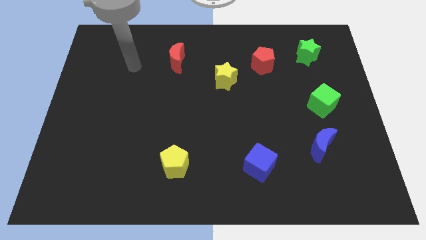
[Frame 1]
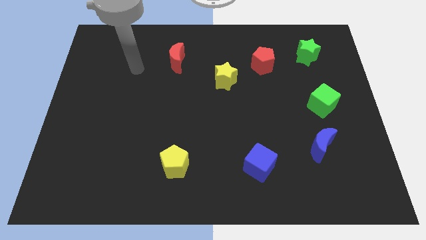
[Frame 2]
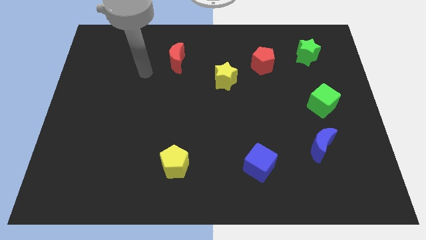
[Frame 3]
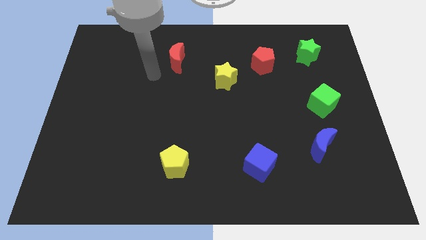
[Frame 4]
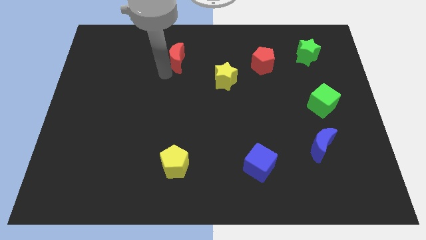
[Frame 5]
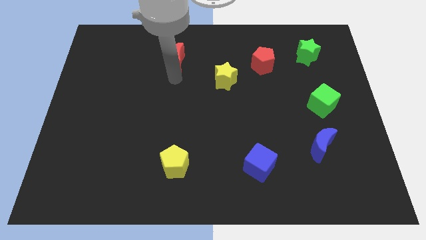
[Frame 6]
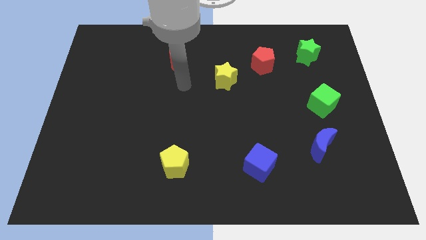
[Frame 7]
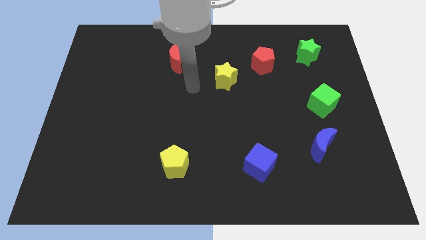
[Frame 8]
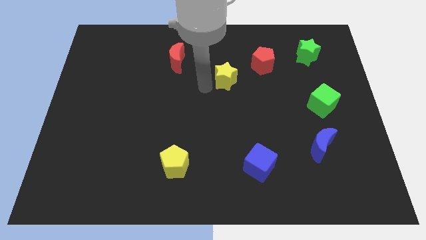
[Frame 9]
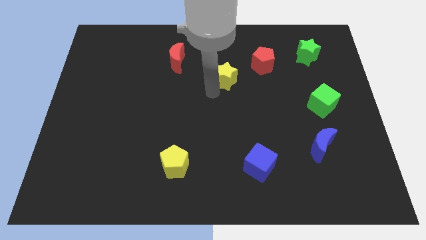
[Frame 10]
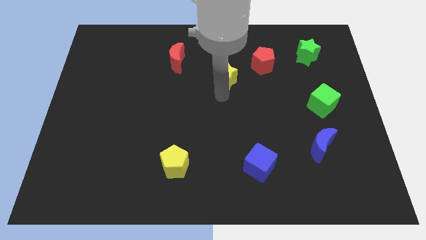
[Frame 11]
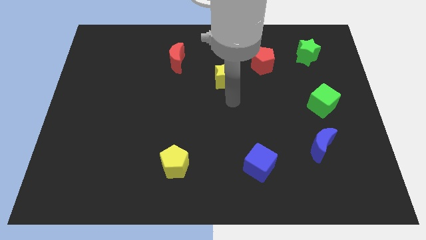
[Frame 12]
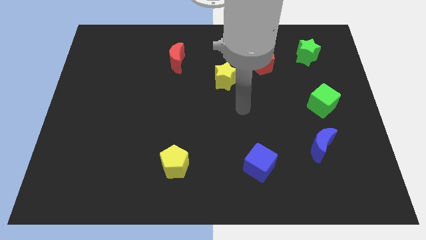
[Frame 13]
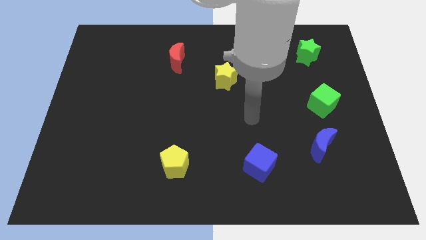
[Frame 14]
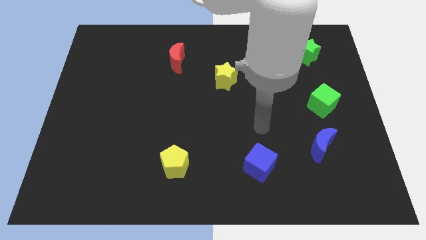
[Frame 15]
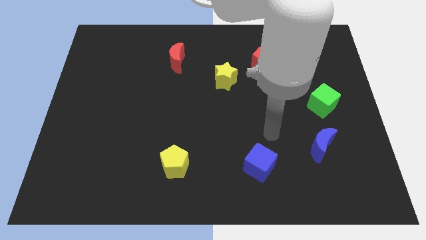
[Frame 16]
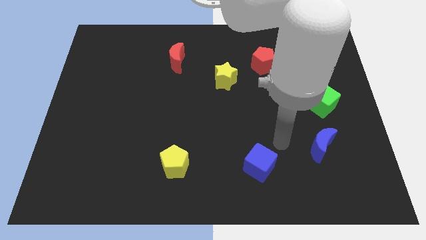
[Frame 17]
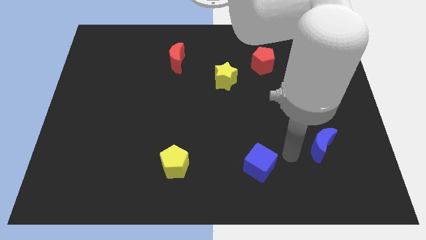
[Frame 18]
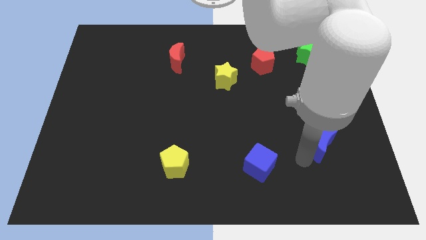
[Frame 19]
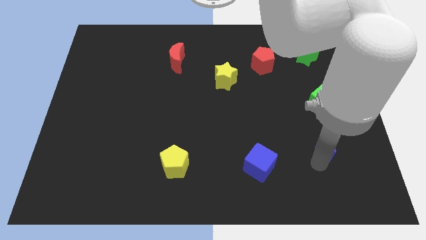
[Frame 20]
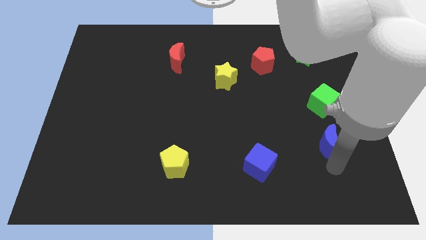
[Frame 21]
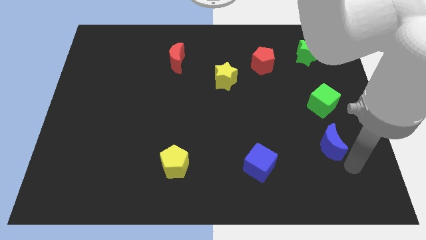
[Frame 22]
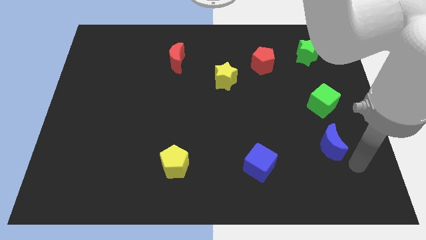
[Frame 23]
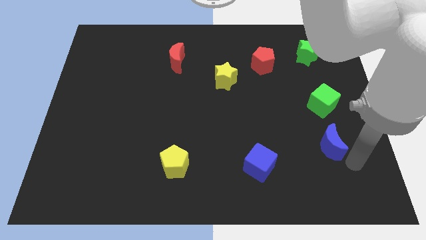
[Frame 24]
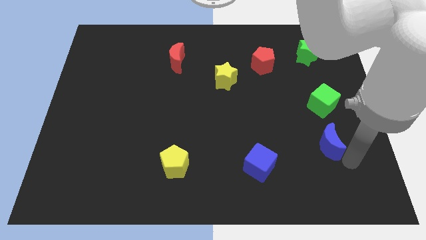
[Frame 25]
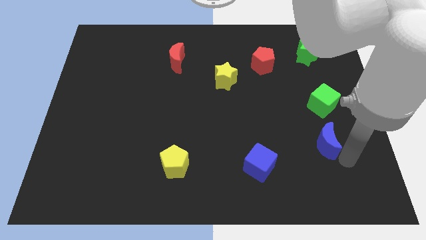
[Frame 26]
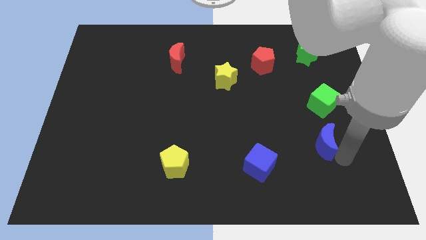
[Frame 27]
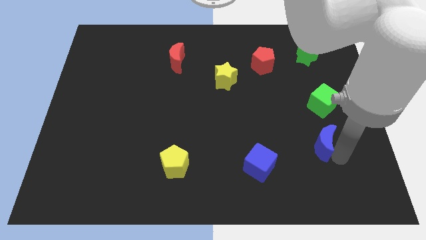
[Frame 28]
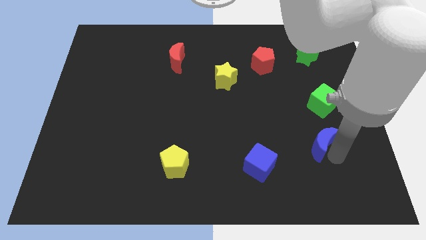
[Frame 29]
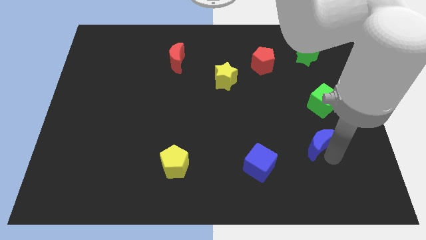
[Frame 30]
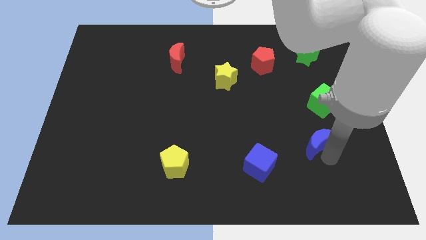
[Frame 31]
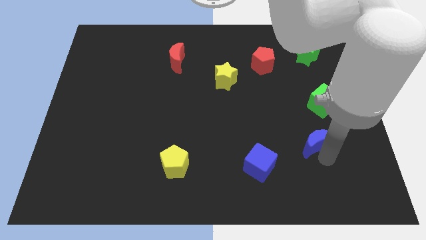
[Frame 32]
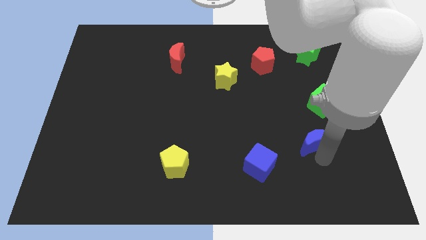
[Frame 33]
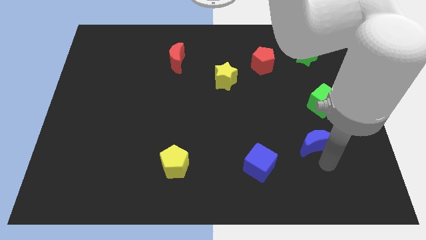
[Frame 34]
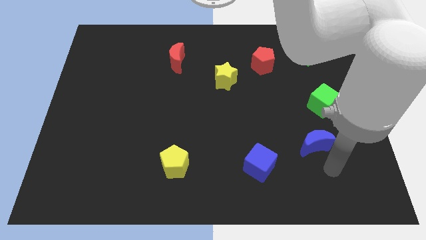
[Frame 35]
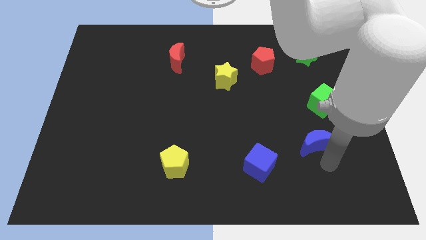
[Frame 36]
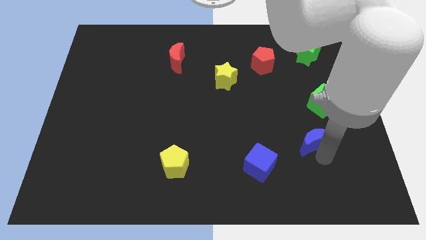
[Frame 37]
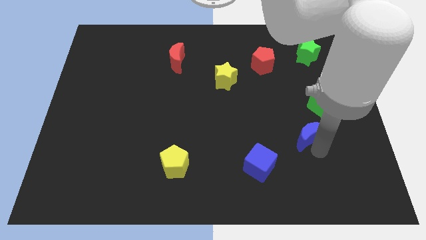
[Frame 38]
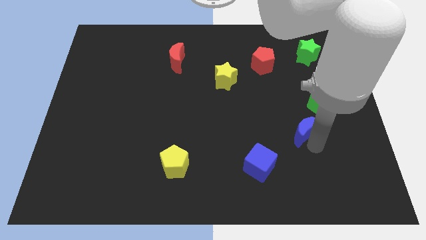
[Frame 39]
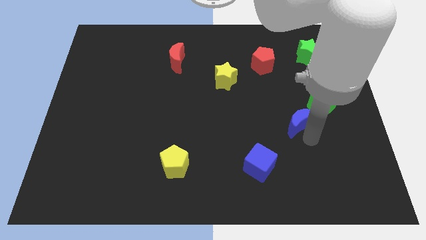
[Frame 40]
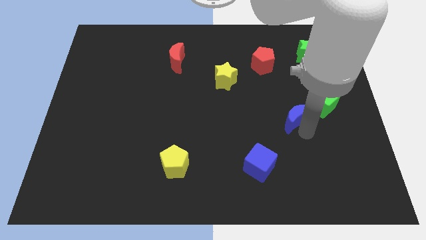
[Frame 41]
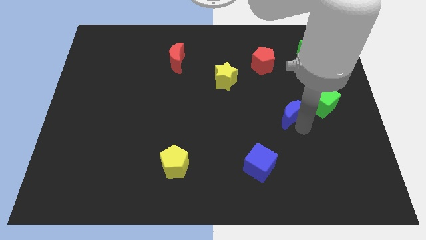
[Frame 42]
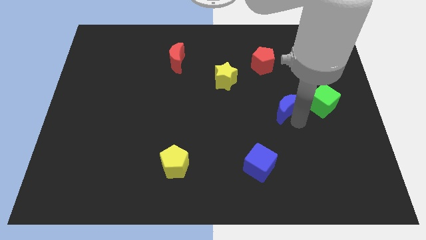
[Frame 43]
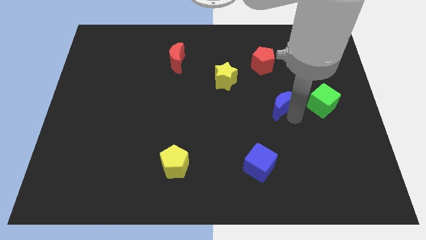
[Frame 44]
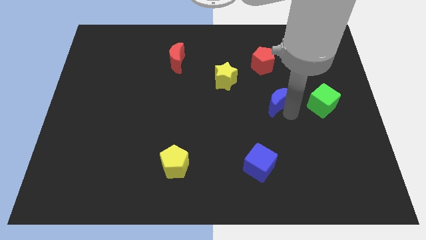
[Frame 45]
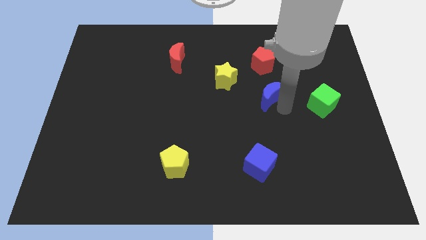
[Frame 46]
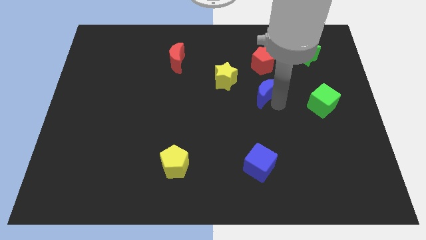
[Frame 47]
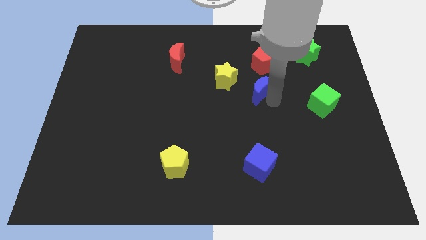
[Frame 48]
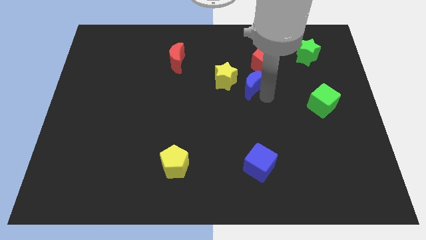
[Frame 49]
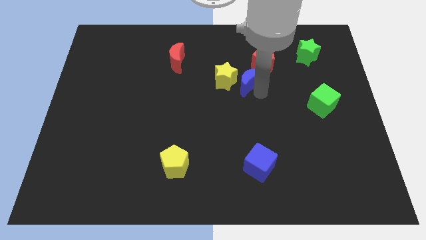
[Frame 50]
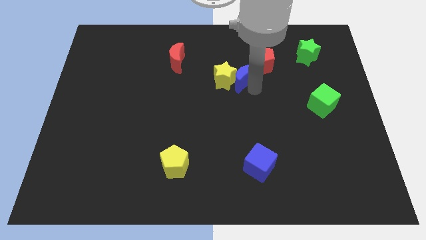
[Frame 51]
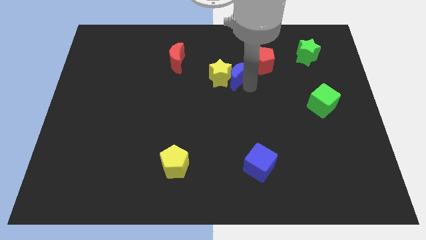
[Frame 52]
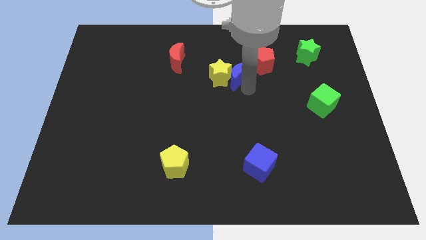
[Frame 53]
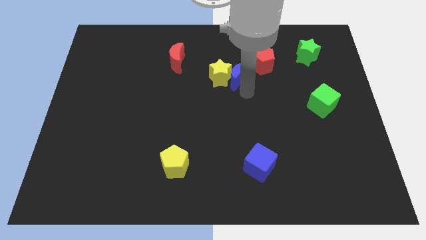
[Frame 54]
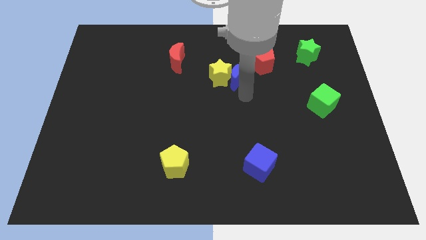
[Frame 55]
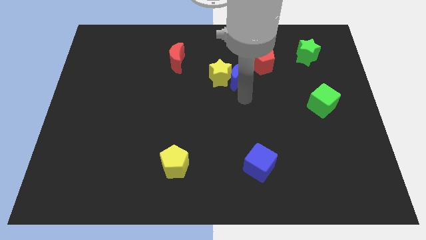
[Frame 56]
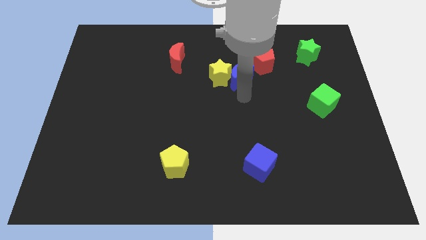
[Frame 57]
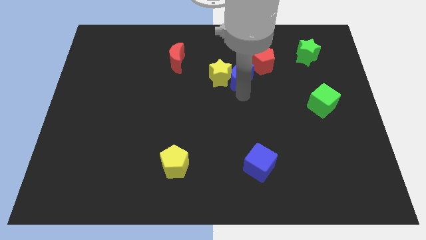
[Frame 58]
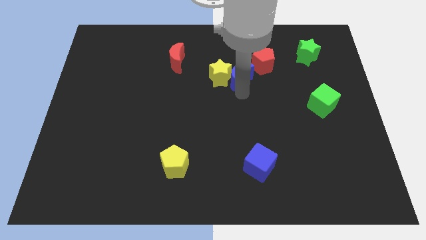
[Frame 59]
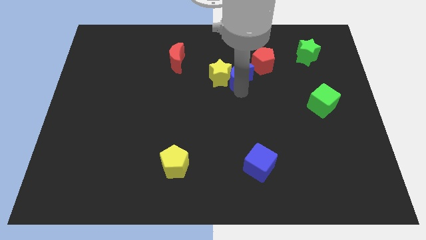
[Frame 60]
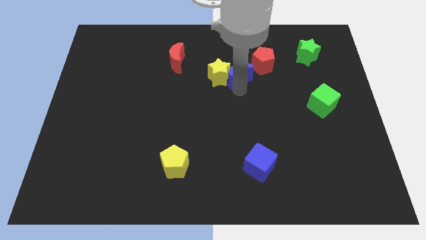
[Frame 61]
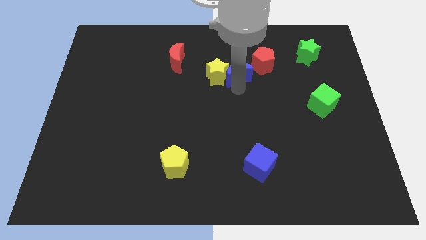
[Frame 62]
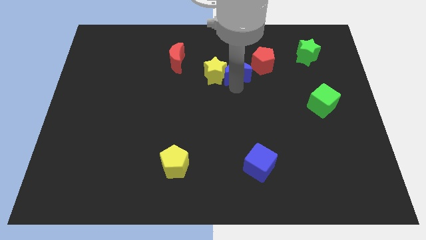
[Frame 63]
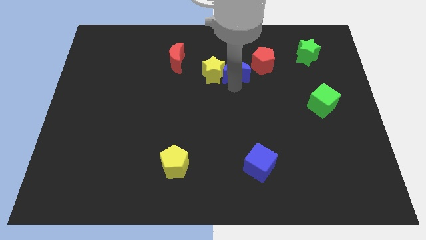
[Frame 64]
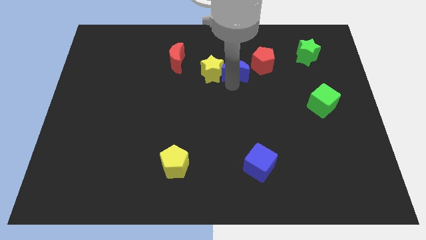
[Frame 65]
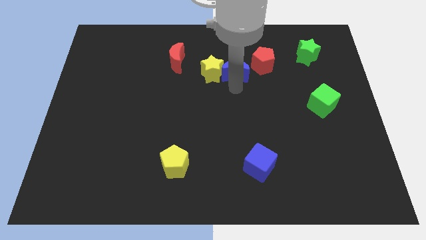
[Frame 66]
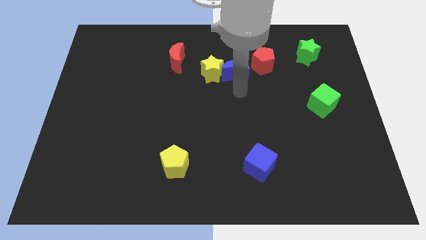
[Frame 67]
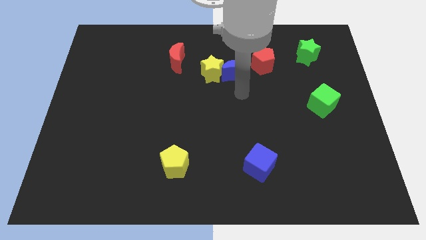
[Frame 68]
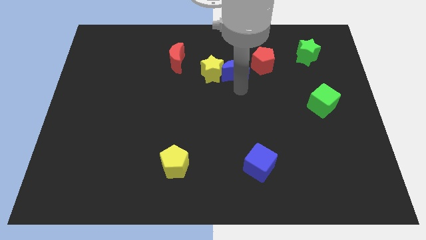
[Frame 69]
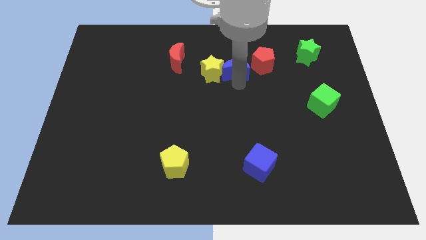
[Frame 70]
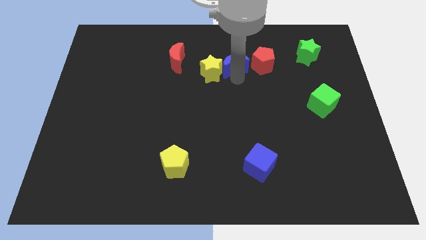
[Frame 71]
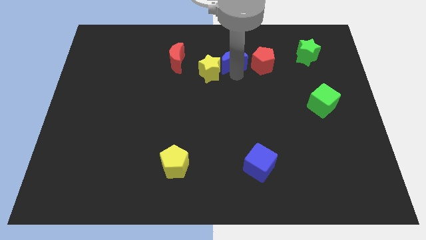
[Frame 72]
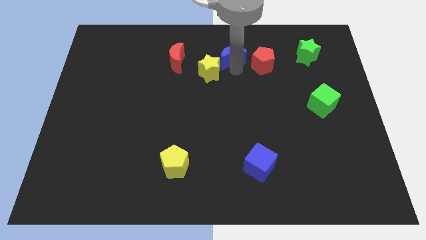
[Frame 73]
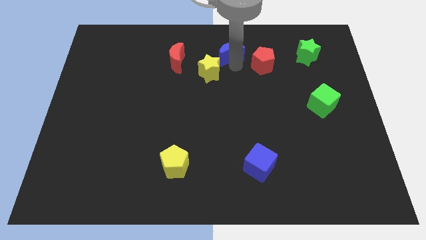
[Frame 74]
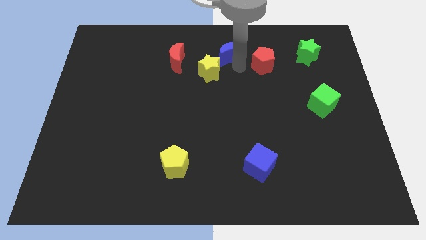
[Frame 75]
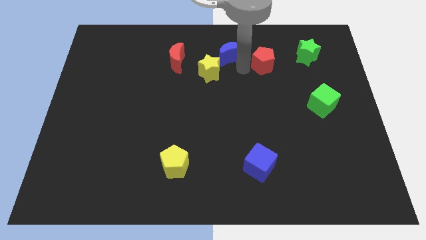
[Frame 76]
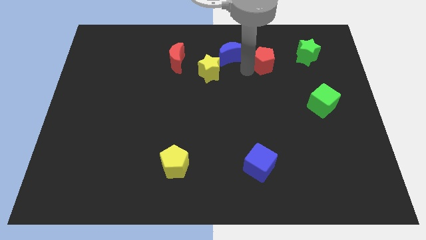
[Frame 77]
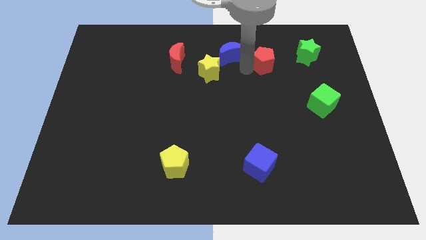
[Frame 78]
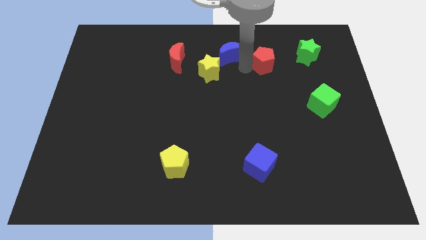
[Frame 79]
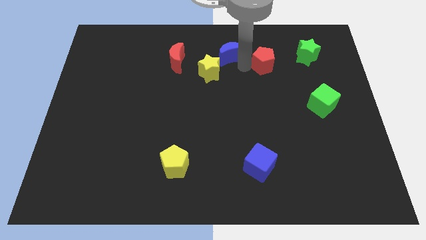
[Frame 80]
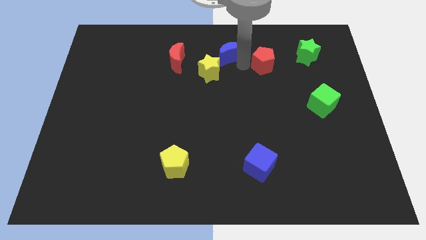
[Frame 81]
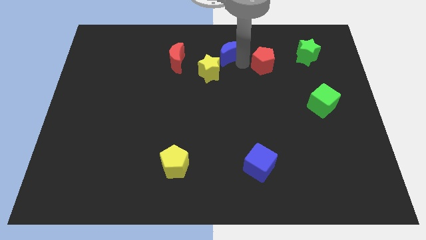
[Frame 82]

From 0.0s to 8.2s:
move the blue moon to the top
